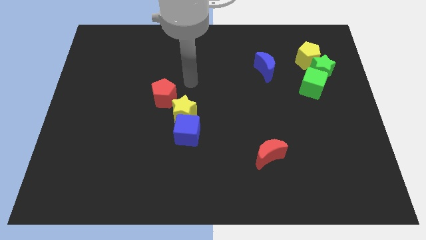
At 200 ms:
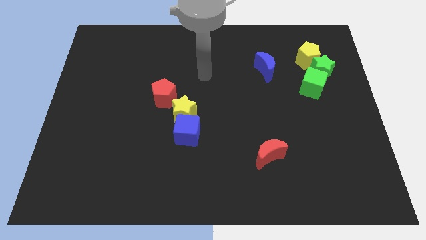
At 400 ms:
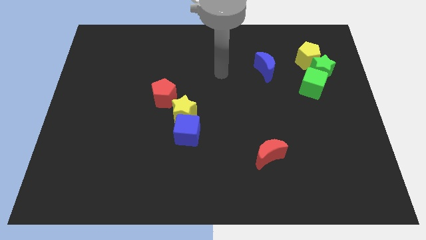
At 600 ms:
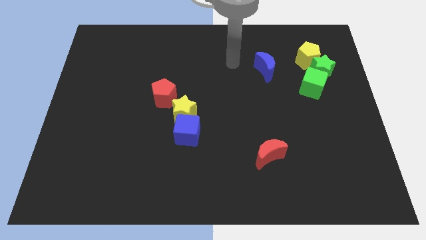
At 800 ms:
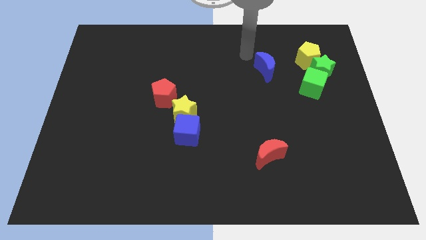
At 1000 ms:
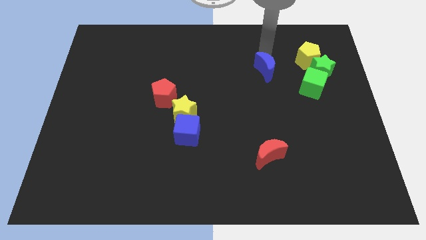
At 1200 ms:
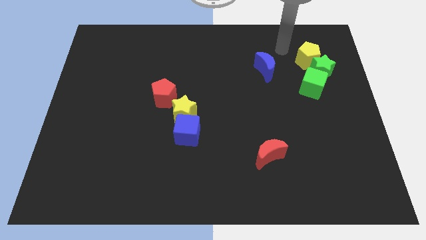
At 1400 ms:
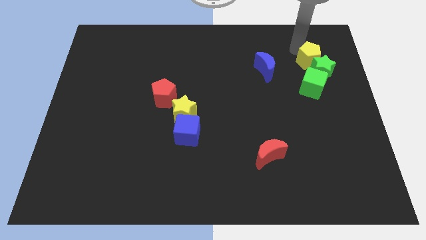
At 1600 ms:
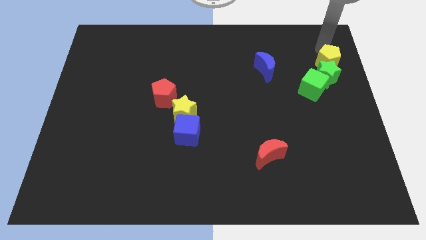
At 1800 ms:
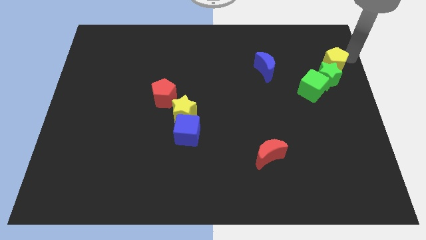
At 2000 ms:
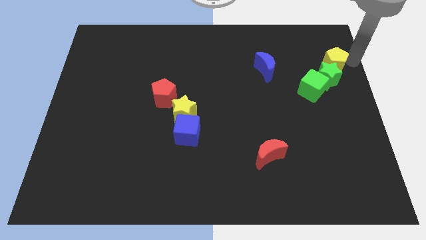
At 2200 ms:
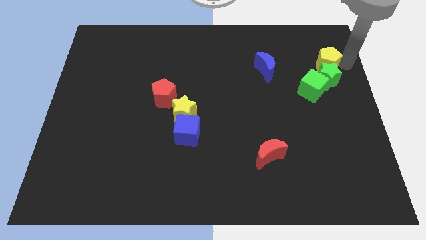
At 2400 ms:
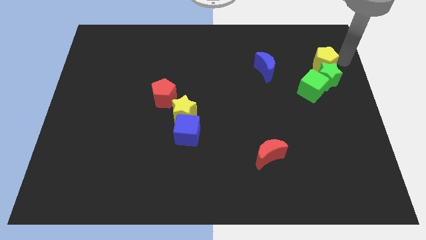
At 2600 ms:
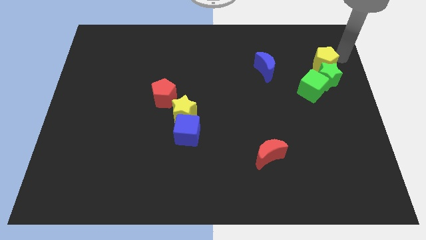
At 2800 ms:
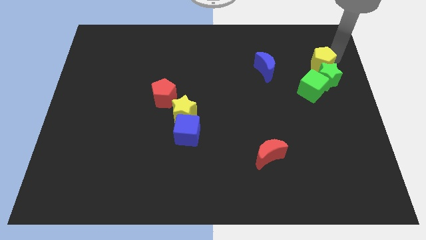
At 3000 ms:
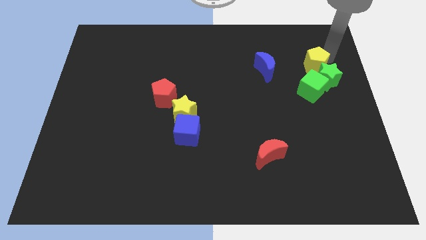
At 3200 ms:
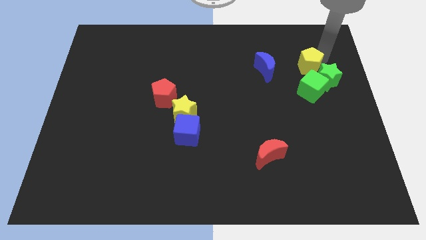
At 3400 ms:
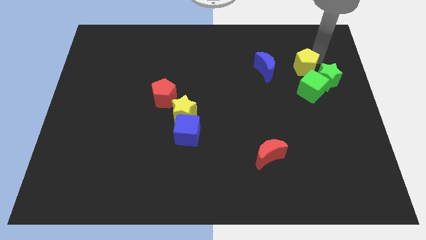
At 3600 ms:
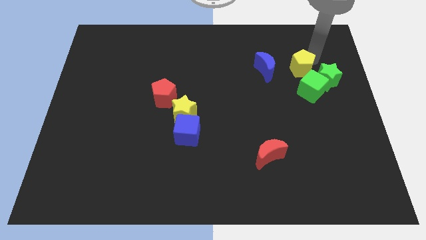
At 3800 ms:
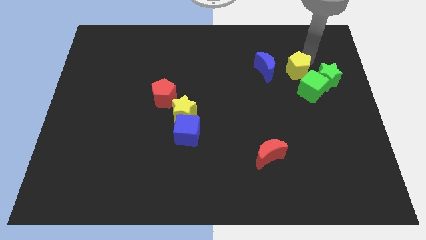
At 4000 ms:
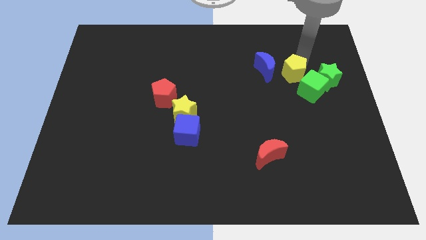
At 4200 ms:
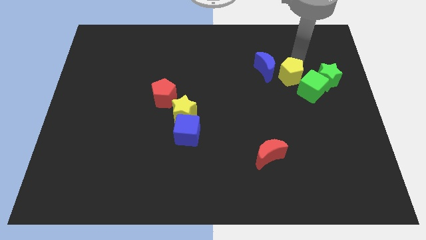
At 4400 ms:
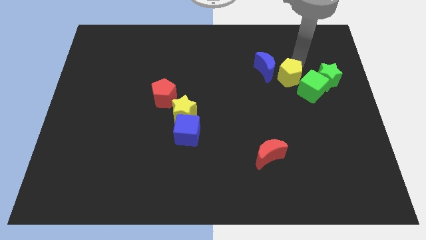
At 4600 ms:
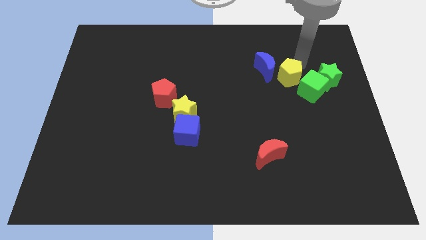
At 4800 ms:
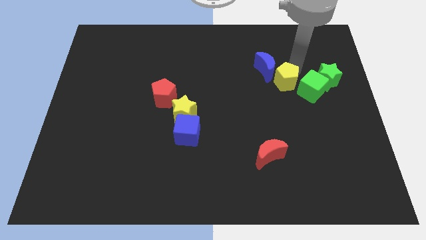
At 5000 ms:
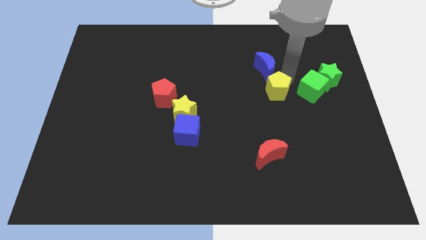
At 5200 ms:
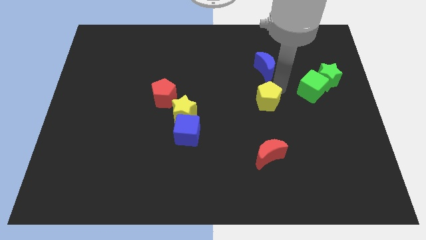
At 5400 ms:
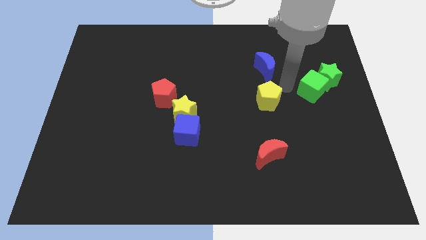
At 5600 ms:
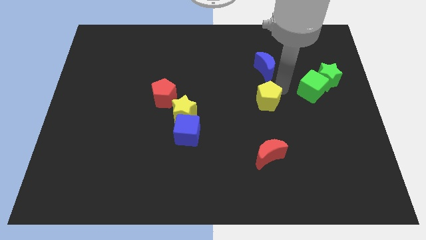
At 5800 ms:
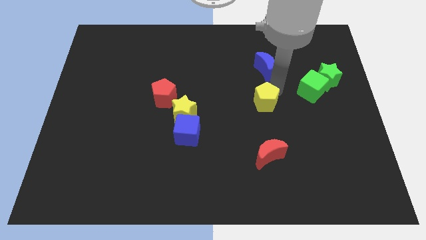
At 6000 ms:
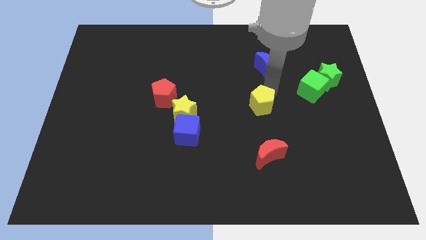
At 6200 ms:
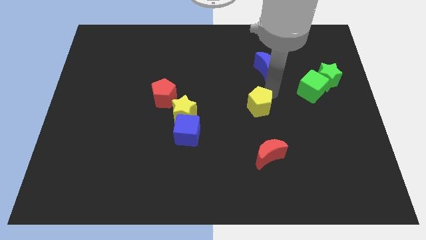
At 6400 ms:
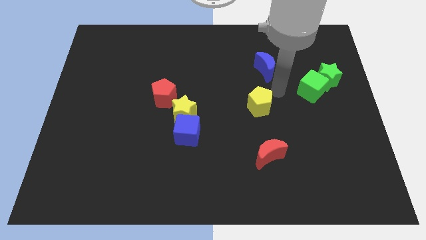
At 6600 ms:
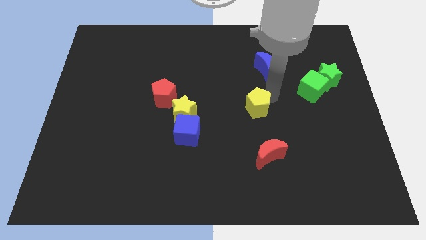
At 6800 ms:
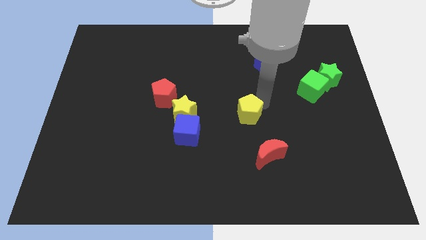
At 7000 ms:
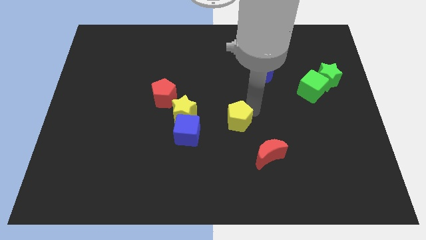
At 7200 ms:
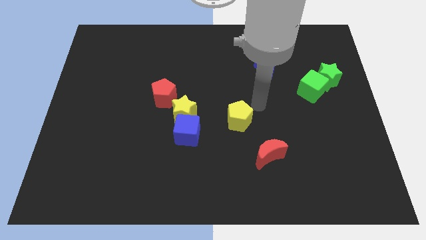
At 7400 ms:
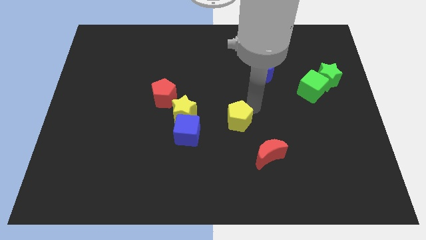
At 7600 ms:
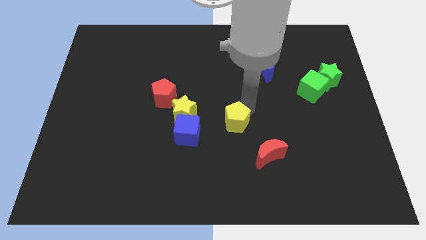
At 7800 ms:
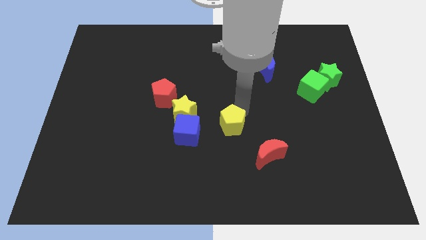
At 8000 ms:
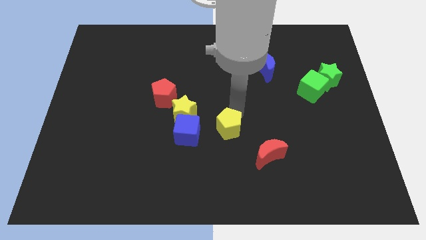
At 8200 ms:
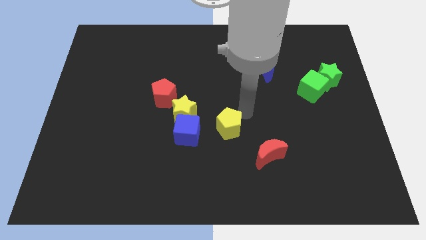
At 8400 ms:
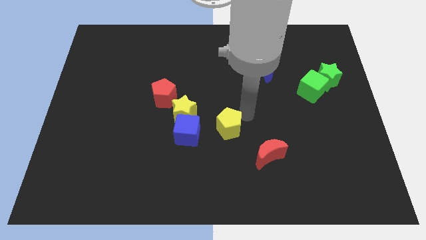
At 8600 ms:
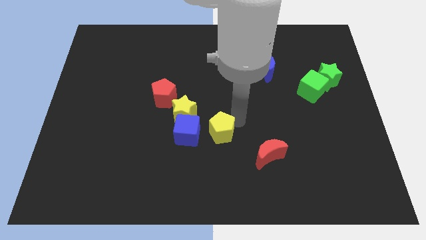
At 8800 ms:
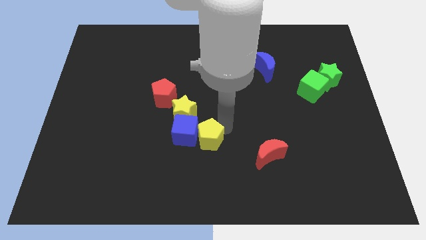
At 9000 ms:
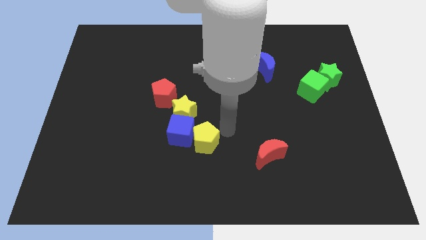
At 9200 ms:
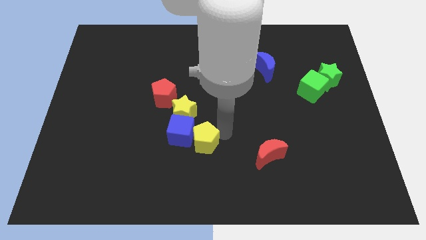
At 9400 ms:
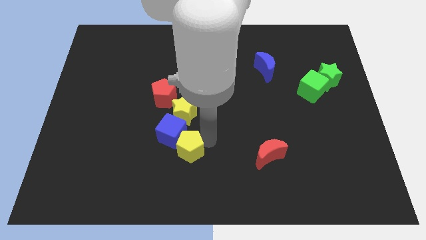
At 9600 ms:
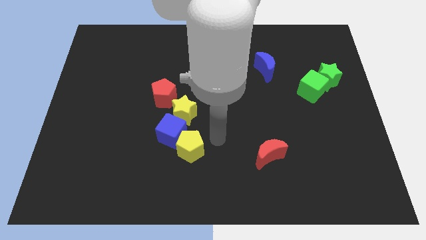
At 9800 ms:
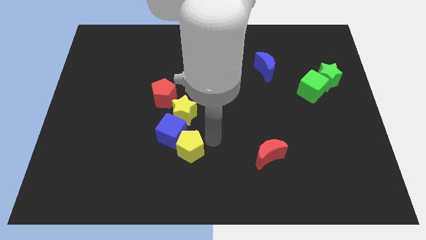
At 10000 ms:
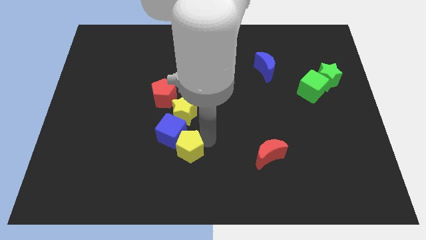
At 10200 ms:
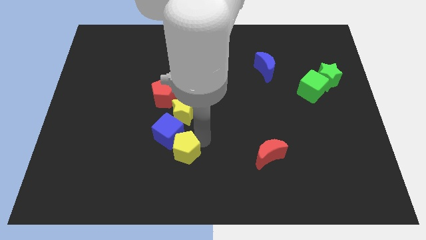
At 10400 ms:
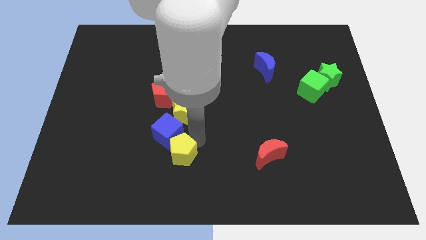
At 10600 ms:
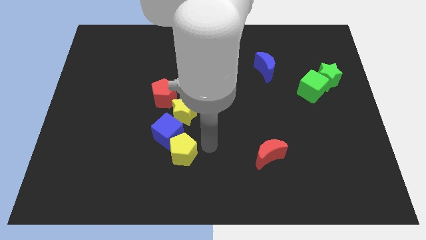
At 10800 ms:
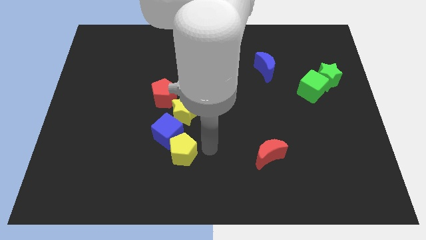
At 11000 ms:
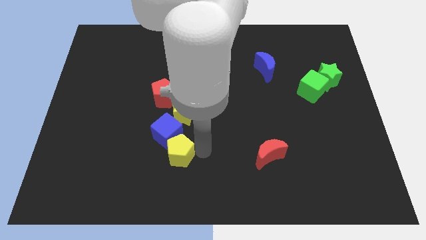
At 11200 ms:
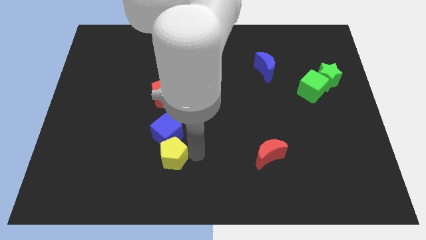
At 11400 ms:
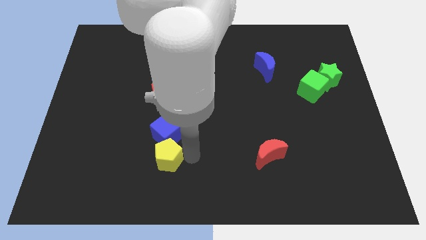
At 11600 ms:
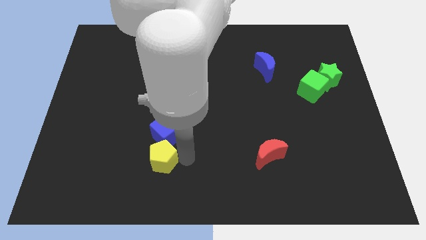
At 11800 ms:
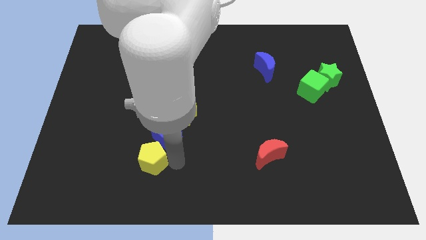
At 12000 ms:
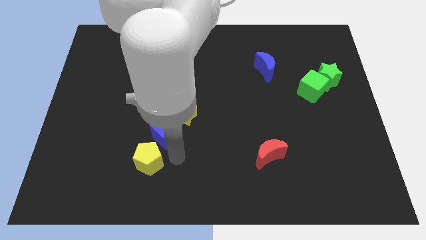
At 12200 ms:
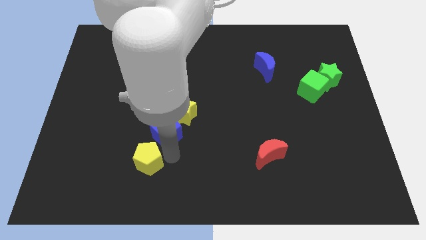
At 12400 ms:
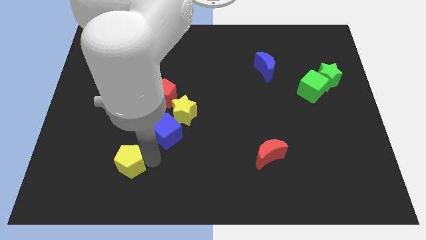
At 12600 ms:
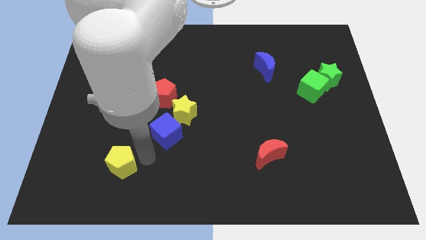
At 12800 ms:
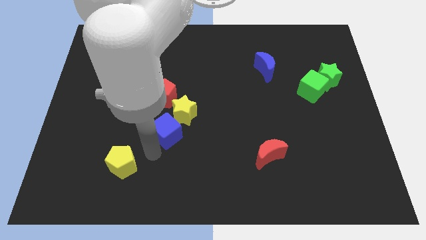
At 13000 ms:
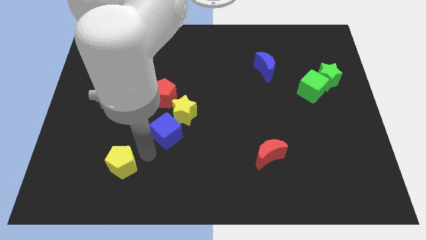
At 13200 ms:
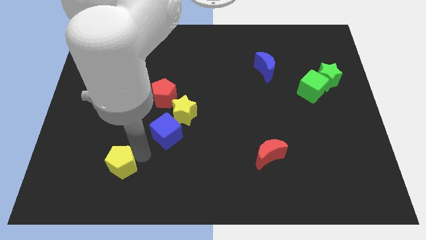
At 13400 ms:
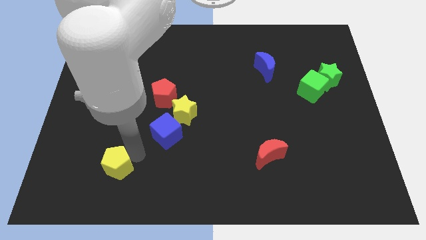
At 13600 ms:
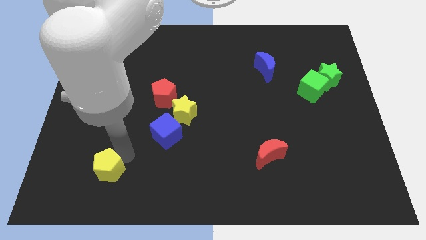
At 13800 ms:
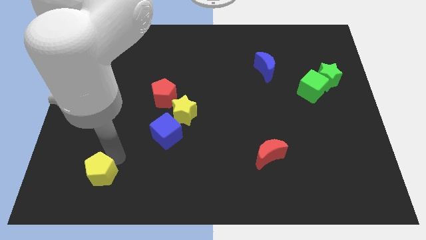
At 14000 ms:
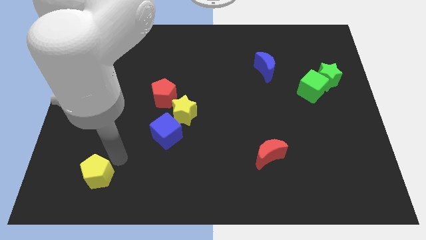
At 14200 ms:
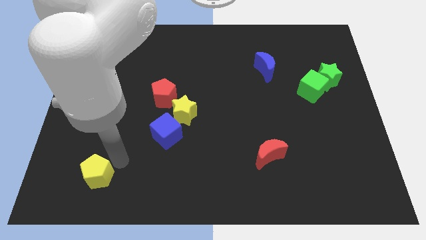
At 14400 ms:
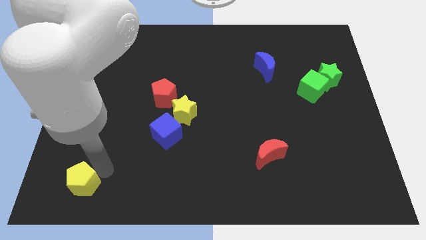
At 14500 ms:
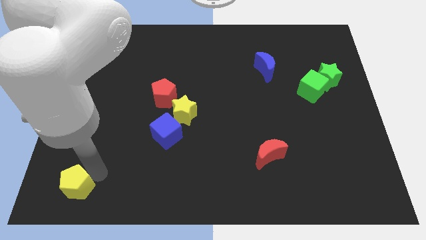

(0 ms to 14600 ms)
push the yellow pentagon to the bottom left corner
